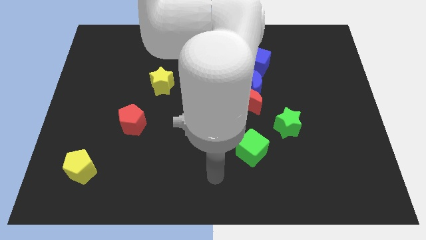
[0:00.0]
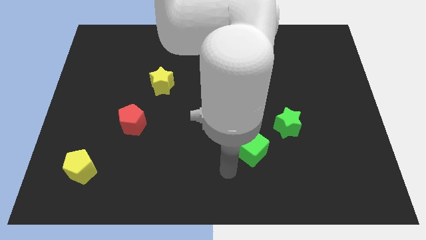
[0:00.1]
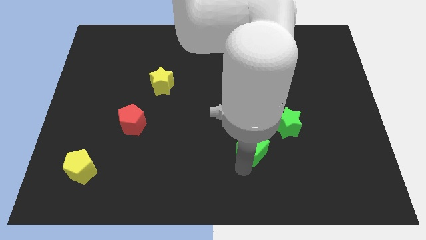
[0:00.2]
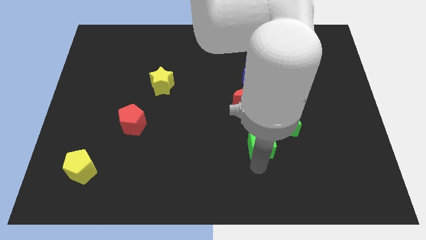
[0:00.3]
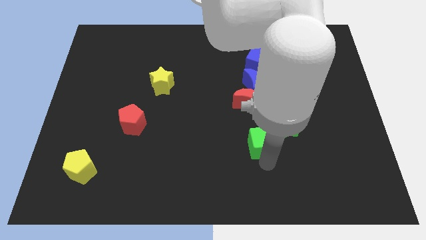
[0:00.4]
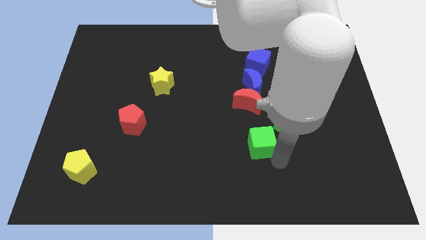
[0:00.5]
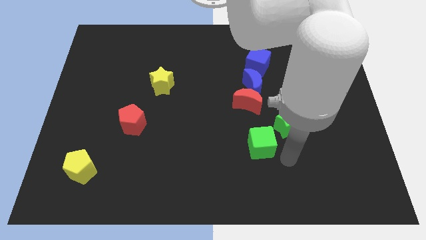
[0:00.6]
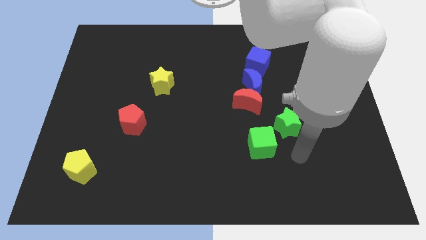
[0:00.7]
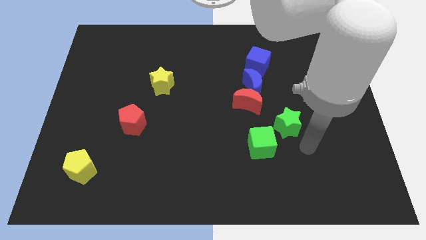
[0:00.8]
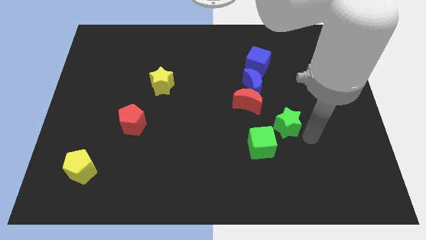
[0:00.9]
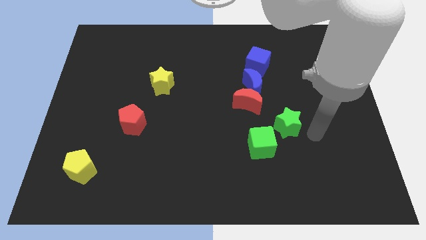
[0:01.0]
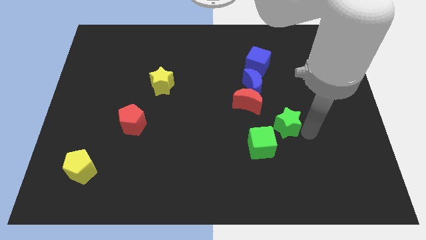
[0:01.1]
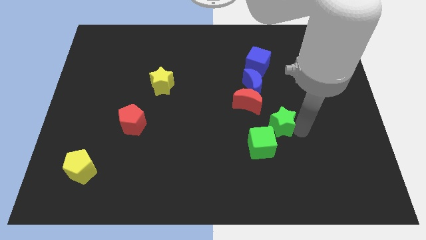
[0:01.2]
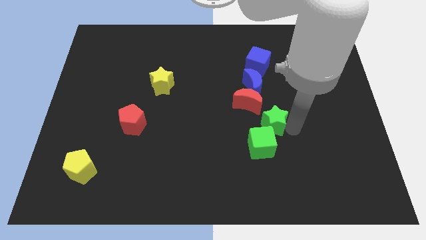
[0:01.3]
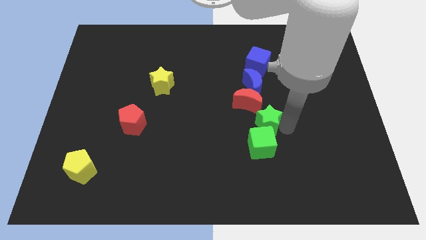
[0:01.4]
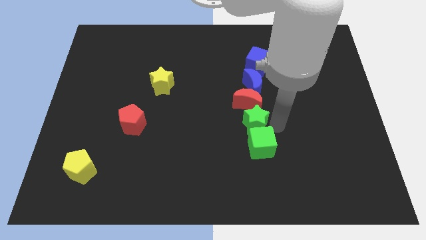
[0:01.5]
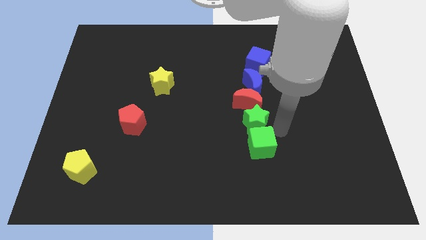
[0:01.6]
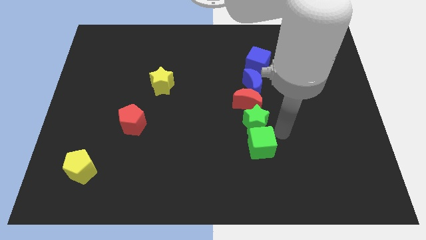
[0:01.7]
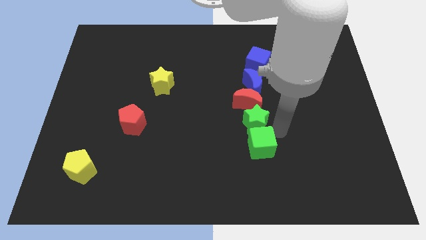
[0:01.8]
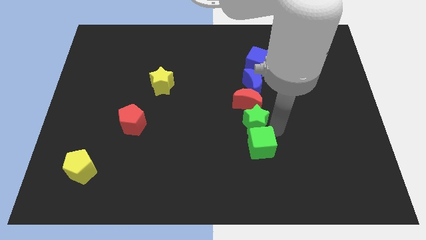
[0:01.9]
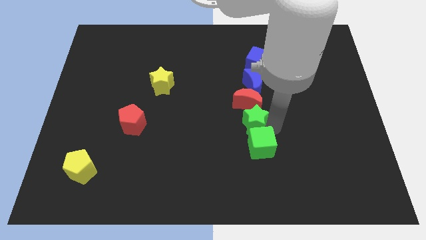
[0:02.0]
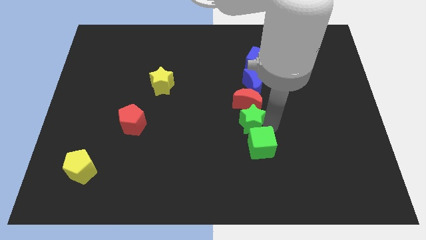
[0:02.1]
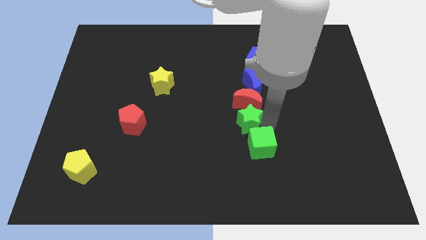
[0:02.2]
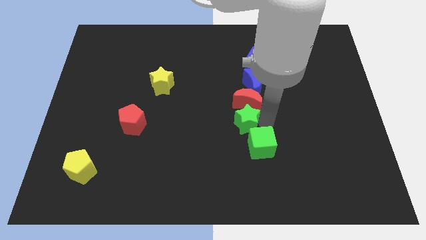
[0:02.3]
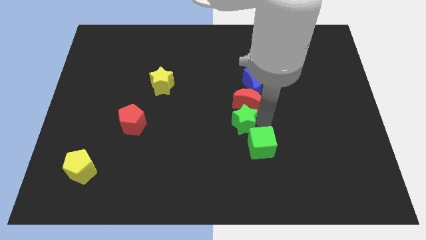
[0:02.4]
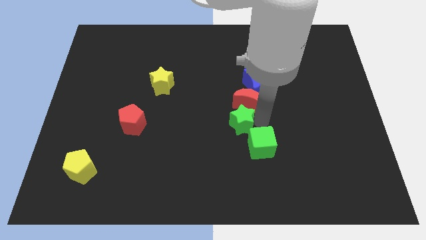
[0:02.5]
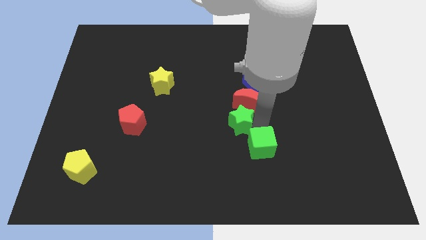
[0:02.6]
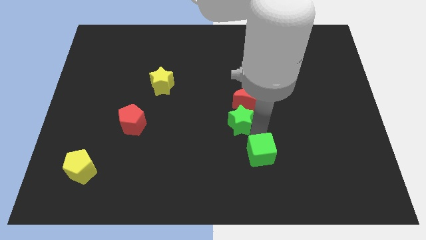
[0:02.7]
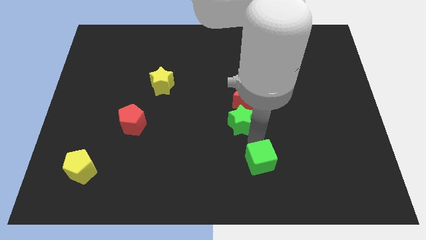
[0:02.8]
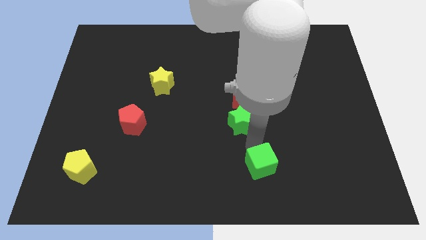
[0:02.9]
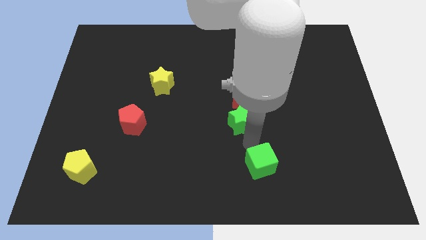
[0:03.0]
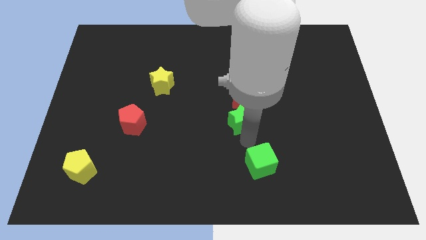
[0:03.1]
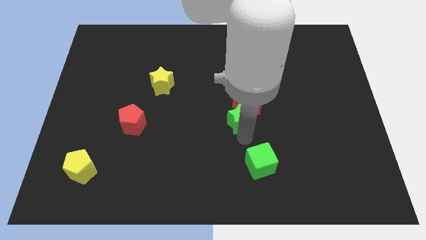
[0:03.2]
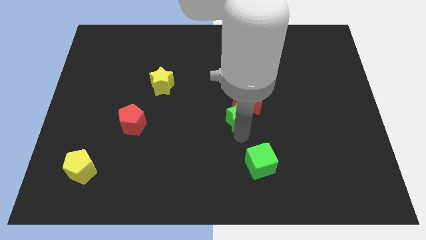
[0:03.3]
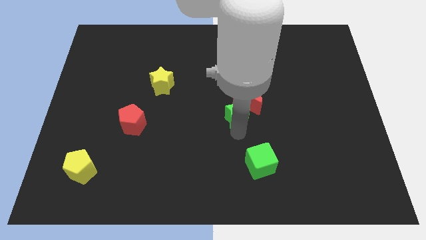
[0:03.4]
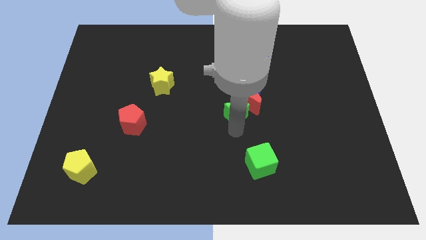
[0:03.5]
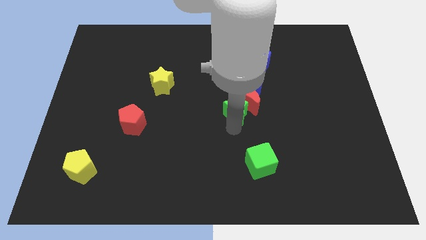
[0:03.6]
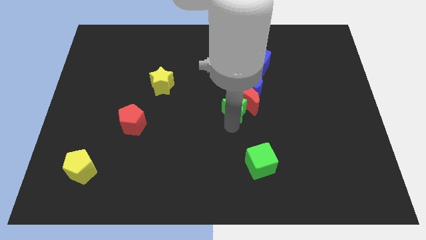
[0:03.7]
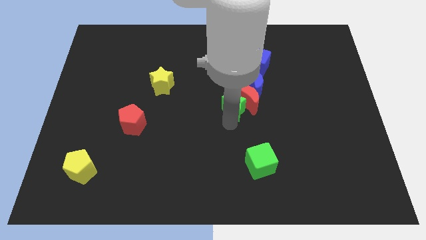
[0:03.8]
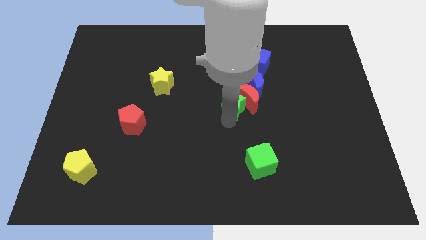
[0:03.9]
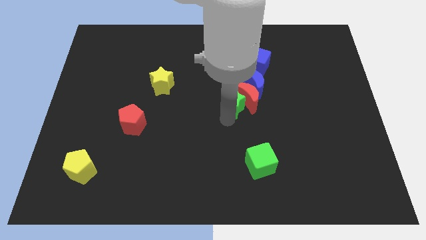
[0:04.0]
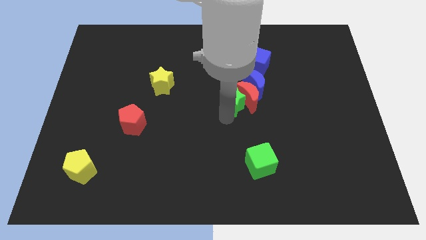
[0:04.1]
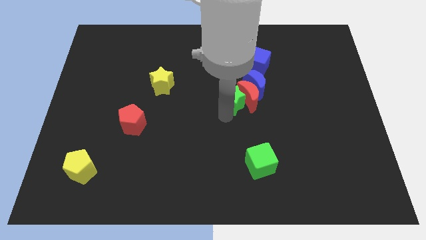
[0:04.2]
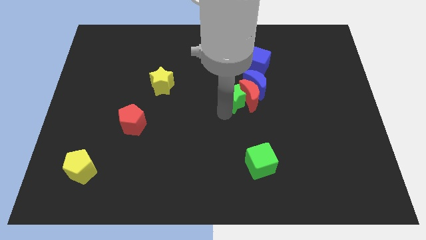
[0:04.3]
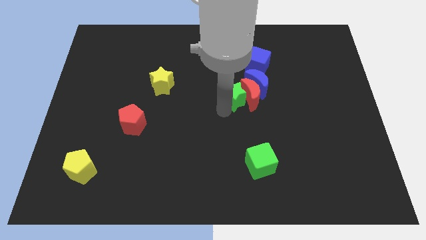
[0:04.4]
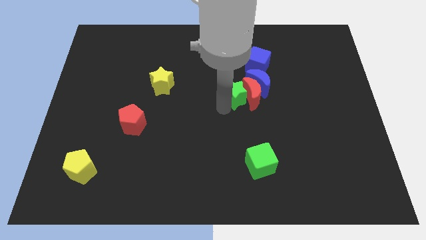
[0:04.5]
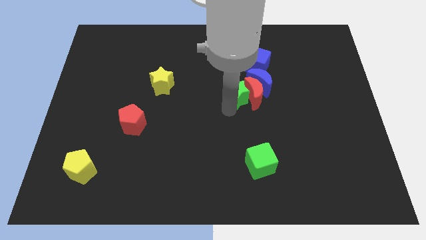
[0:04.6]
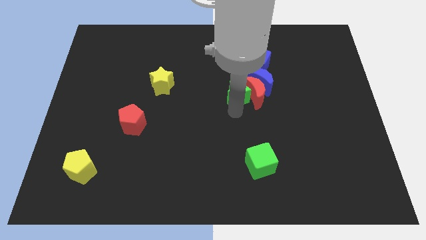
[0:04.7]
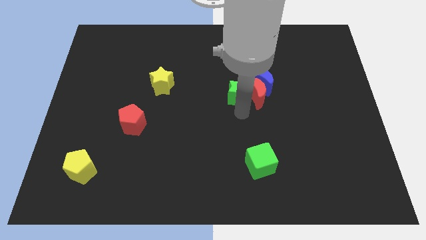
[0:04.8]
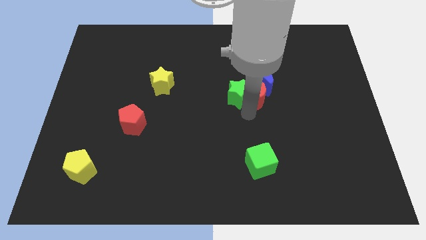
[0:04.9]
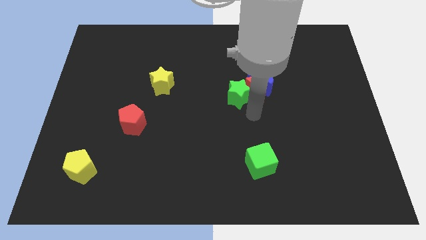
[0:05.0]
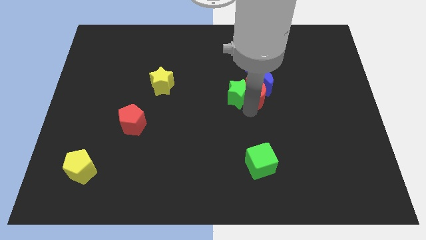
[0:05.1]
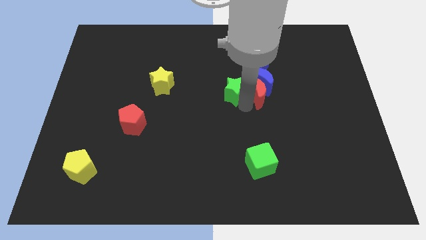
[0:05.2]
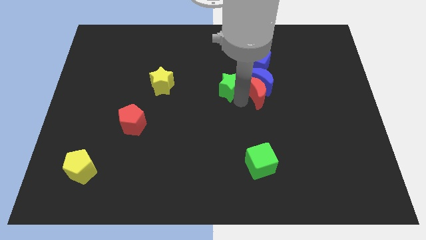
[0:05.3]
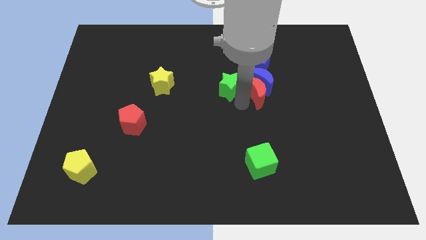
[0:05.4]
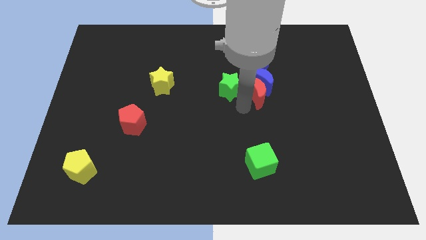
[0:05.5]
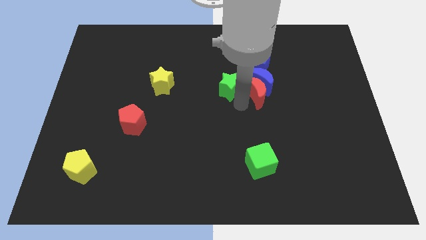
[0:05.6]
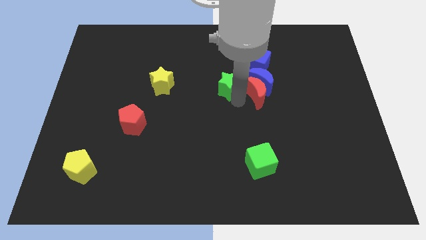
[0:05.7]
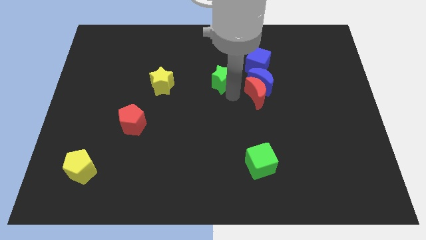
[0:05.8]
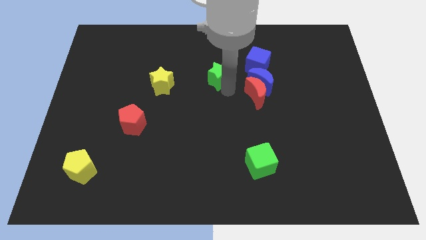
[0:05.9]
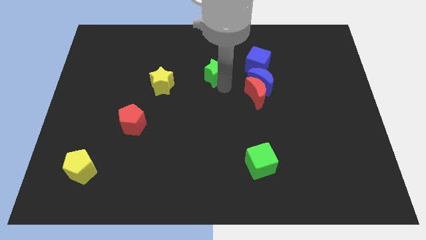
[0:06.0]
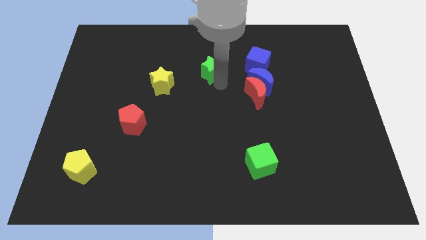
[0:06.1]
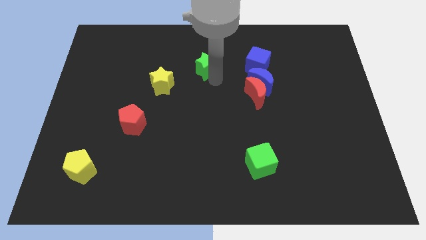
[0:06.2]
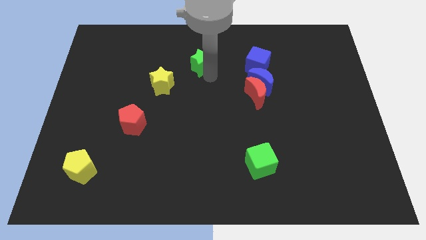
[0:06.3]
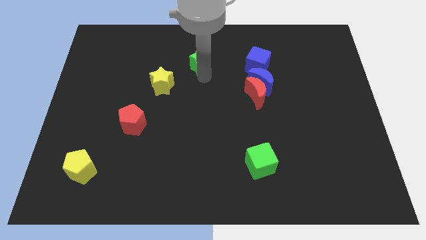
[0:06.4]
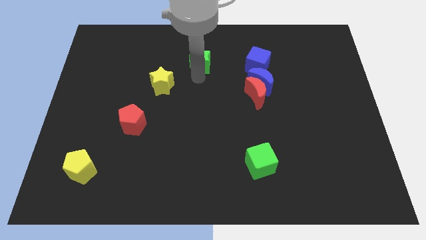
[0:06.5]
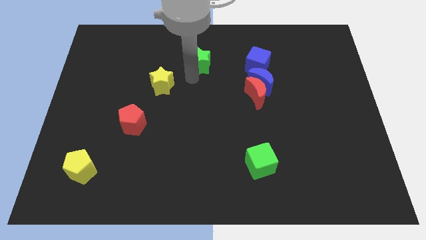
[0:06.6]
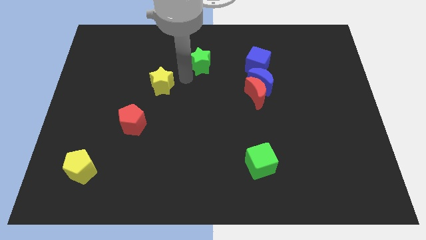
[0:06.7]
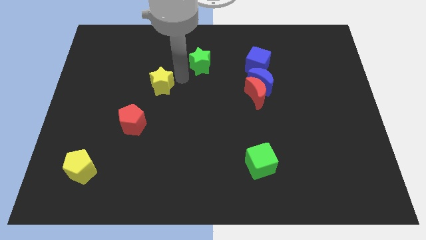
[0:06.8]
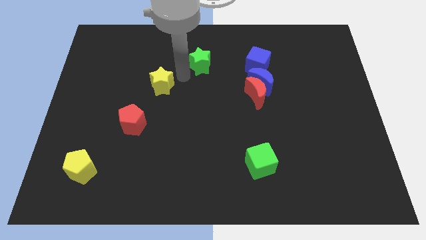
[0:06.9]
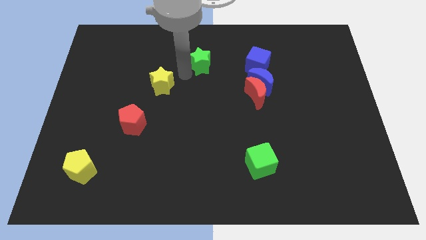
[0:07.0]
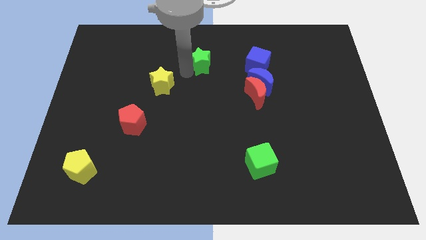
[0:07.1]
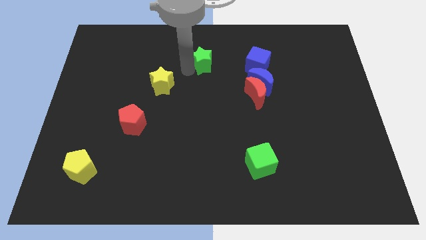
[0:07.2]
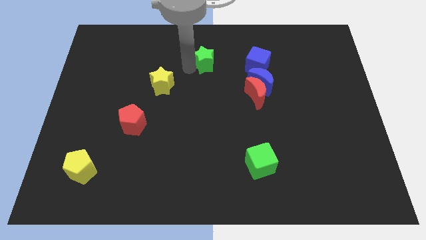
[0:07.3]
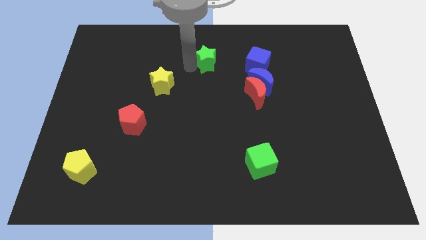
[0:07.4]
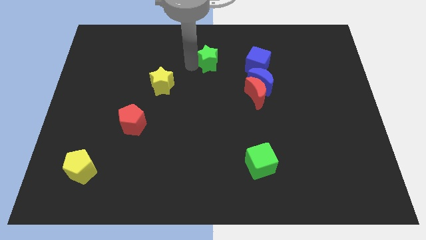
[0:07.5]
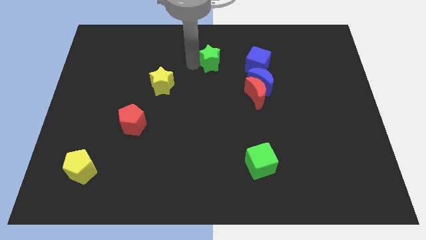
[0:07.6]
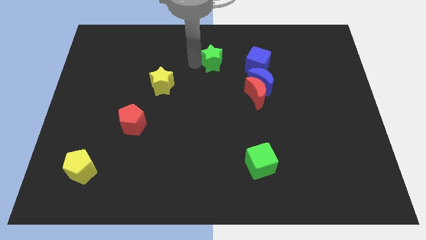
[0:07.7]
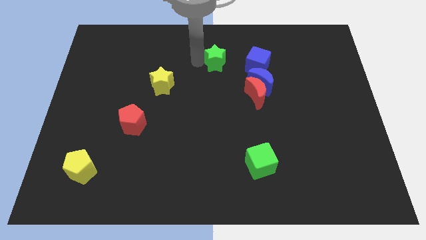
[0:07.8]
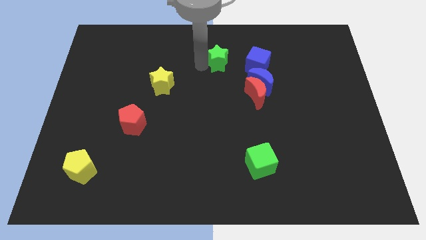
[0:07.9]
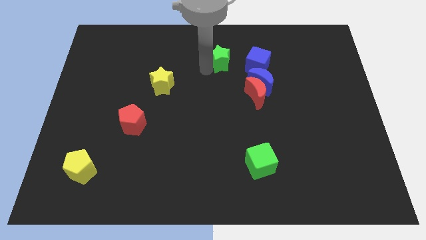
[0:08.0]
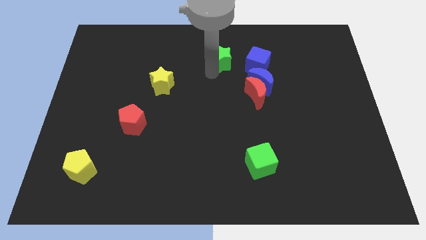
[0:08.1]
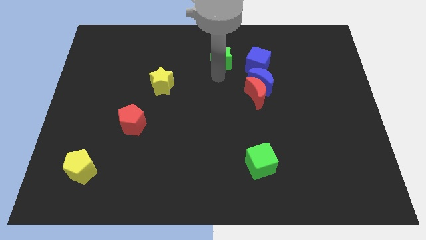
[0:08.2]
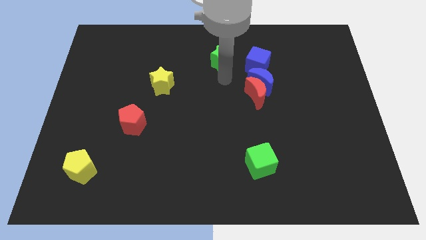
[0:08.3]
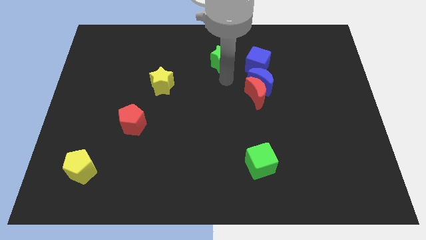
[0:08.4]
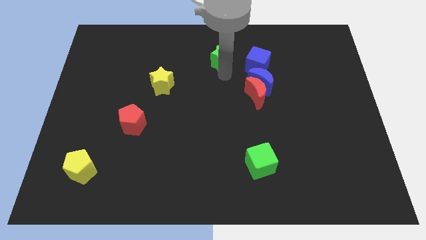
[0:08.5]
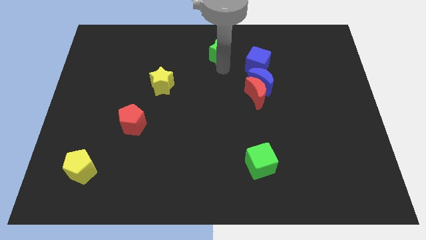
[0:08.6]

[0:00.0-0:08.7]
push the green star to the top side
